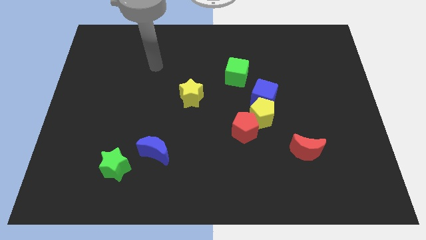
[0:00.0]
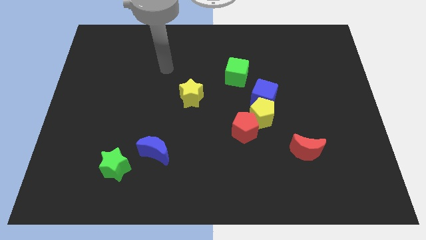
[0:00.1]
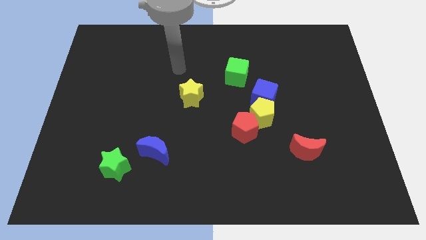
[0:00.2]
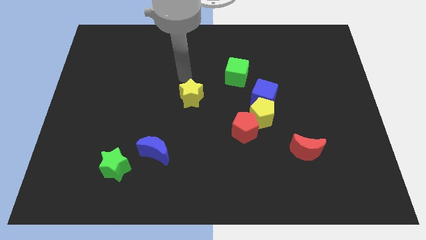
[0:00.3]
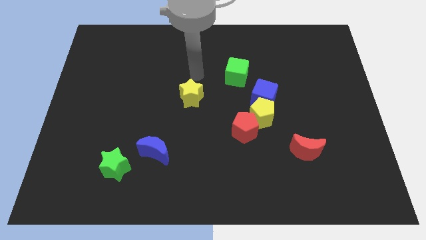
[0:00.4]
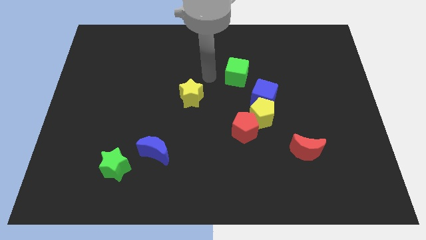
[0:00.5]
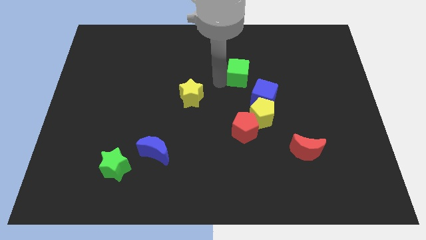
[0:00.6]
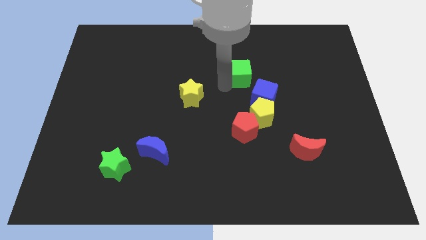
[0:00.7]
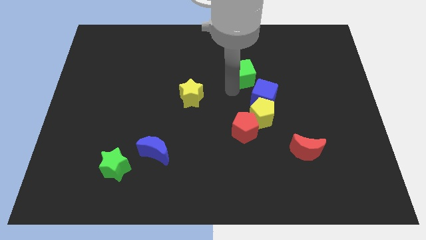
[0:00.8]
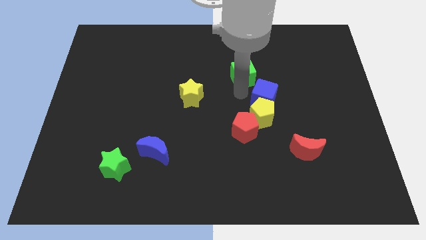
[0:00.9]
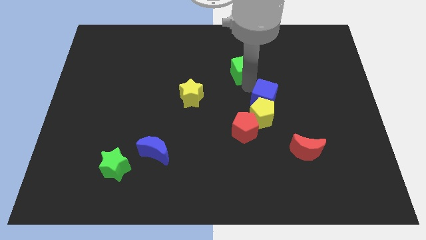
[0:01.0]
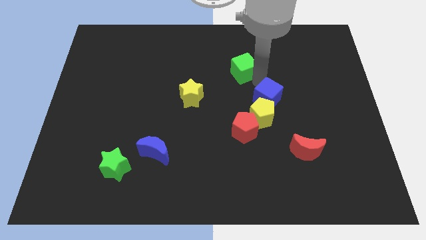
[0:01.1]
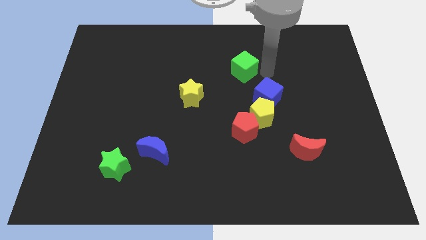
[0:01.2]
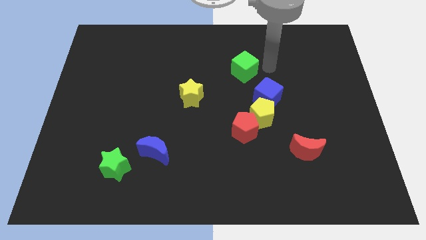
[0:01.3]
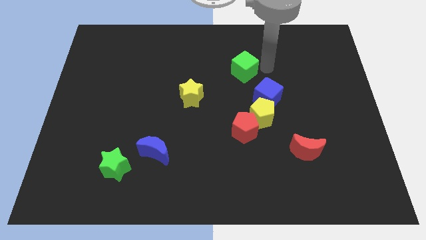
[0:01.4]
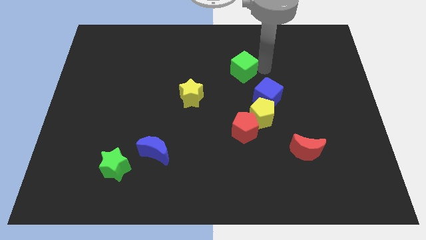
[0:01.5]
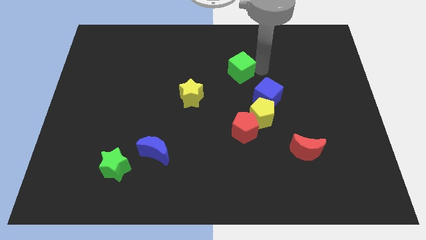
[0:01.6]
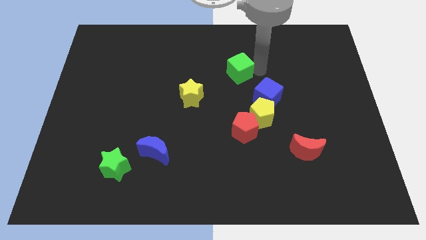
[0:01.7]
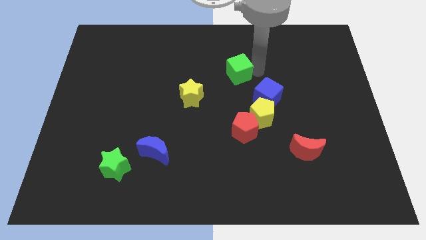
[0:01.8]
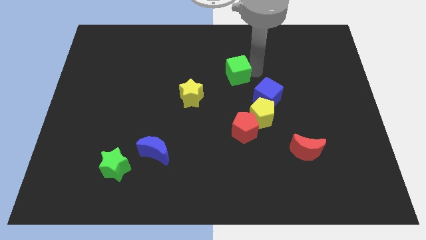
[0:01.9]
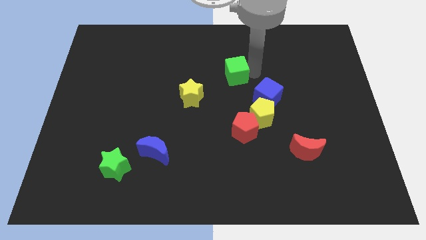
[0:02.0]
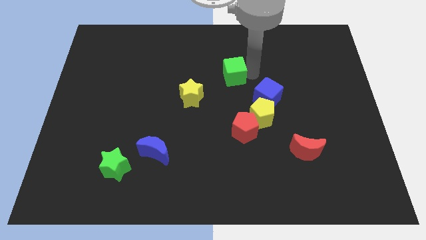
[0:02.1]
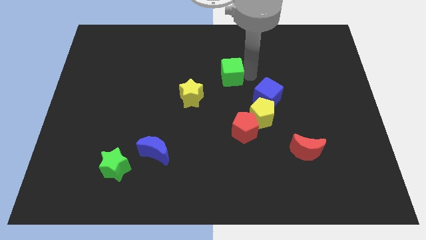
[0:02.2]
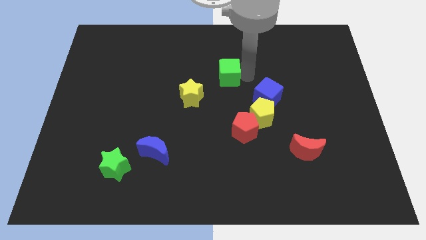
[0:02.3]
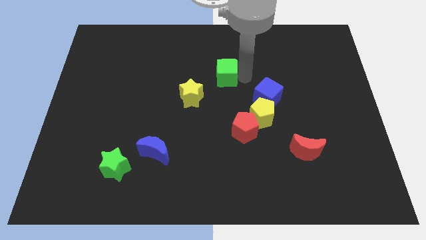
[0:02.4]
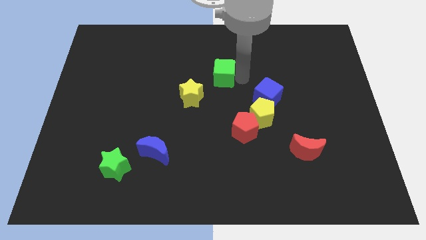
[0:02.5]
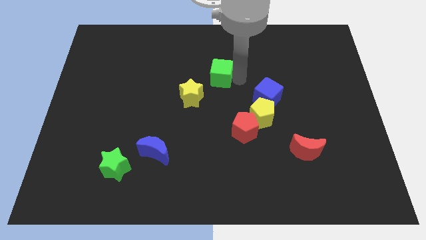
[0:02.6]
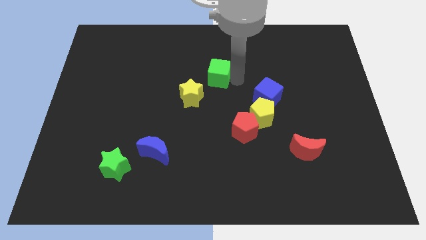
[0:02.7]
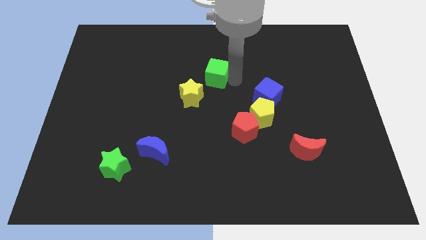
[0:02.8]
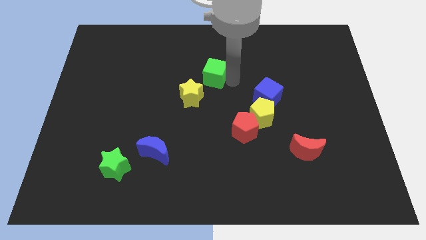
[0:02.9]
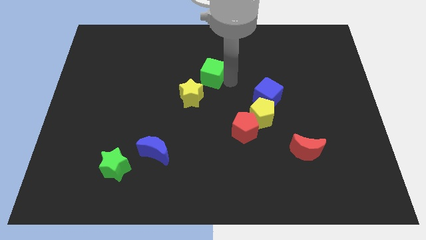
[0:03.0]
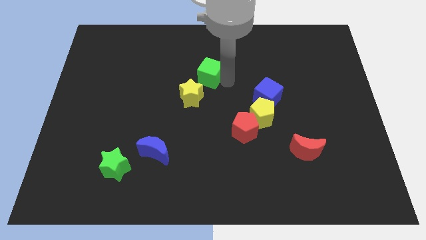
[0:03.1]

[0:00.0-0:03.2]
slide the green cube a little bit left

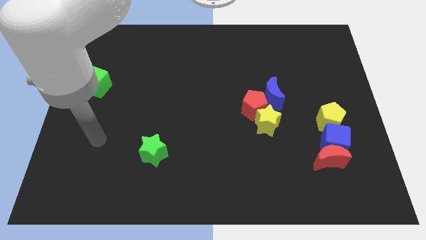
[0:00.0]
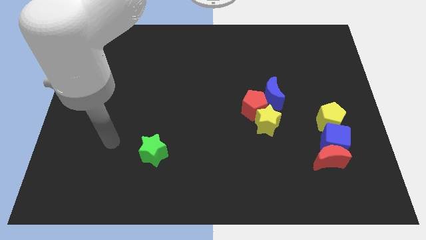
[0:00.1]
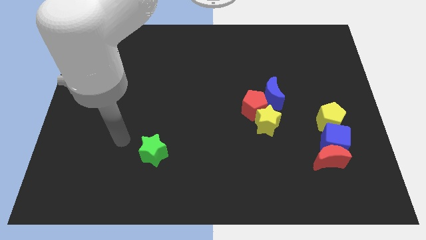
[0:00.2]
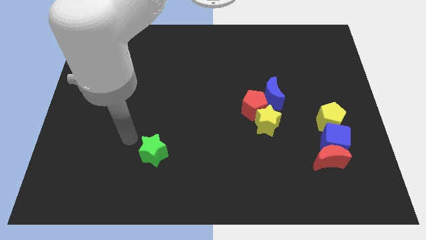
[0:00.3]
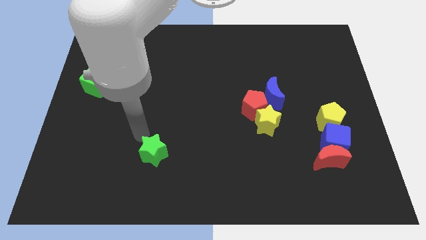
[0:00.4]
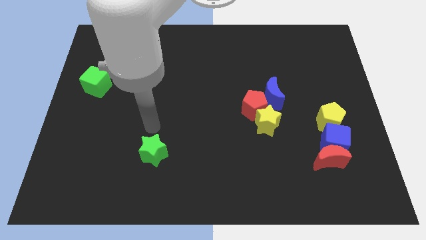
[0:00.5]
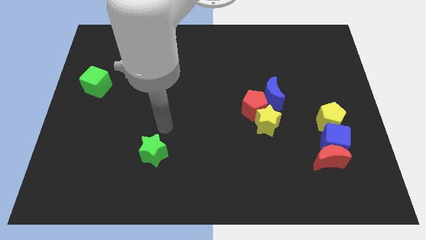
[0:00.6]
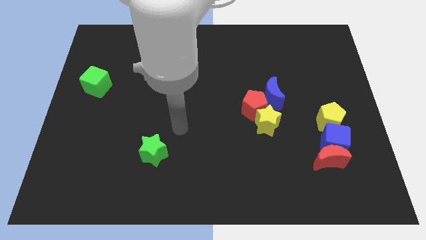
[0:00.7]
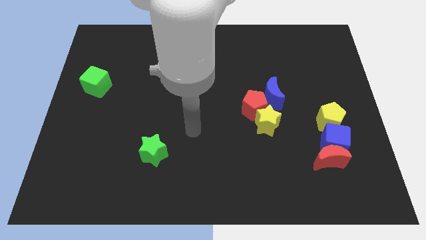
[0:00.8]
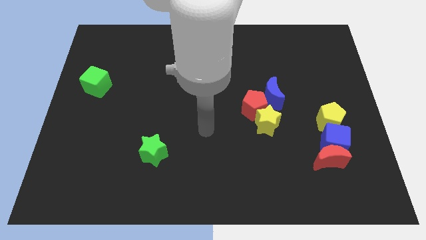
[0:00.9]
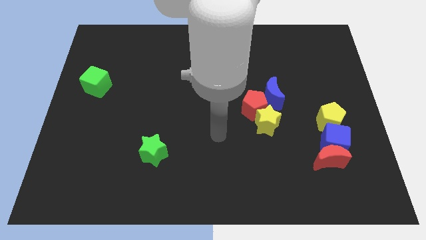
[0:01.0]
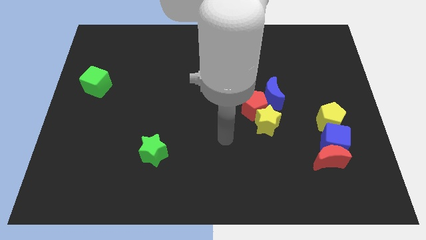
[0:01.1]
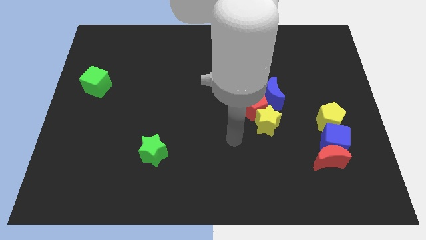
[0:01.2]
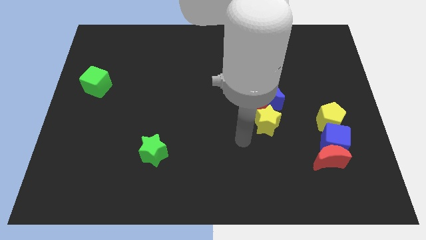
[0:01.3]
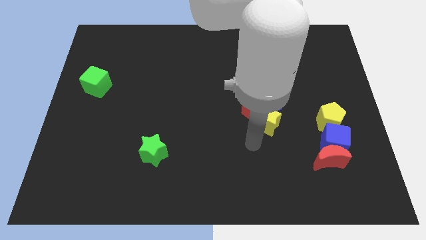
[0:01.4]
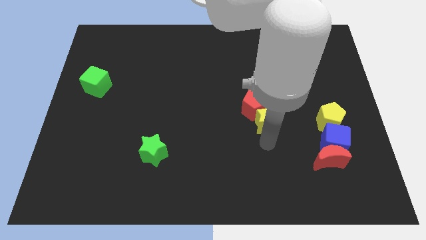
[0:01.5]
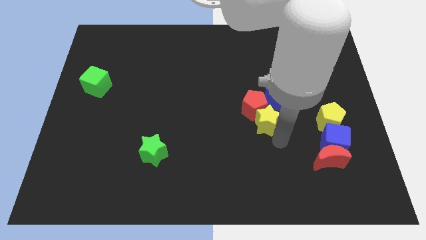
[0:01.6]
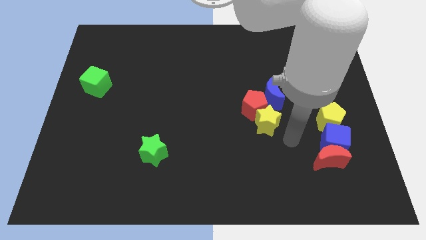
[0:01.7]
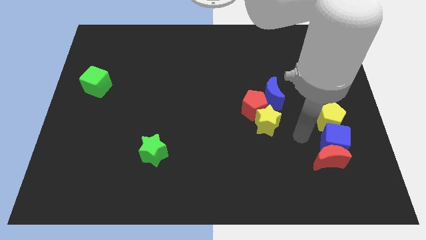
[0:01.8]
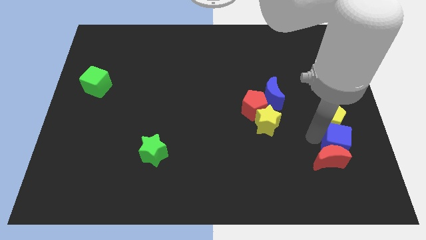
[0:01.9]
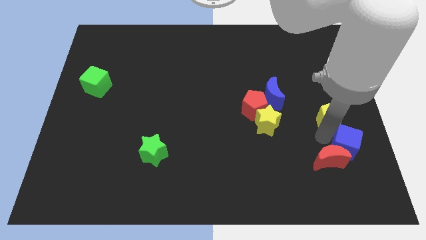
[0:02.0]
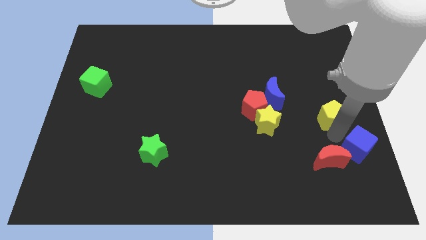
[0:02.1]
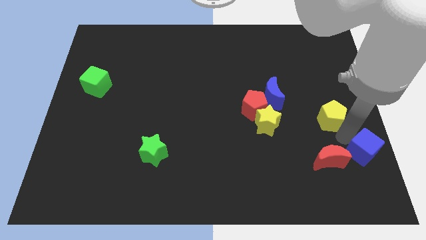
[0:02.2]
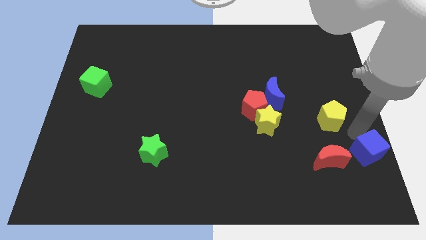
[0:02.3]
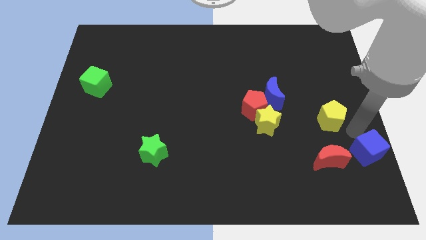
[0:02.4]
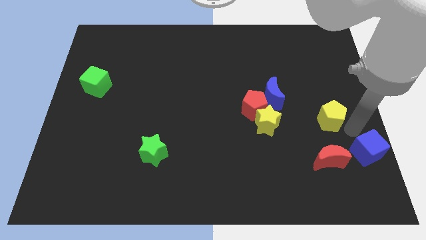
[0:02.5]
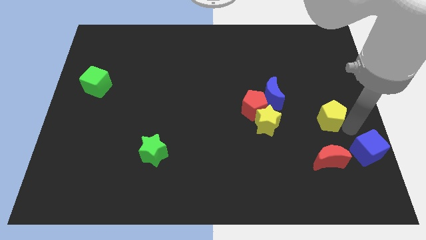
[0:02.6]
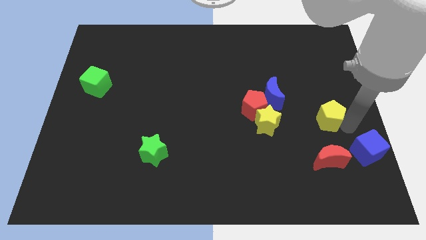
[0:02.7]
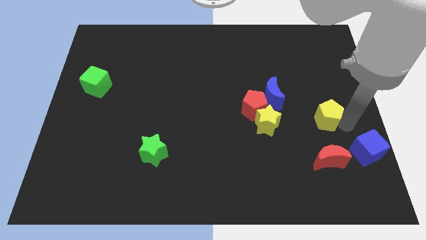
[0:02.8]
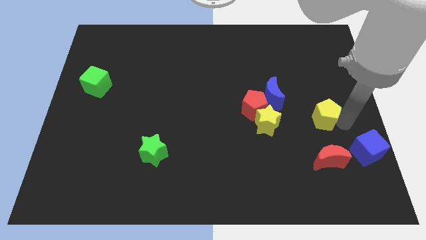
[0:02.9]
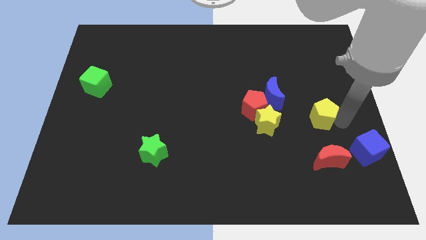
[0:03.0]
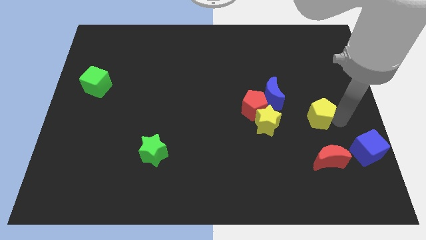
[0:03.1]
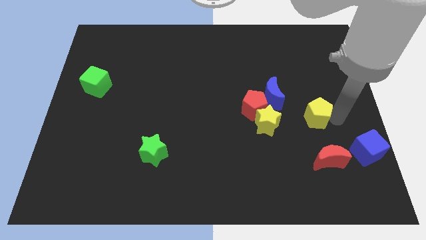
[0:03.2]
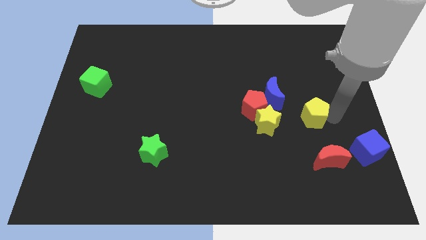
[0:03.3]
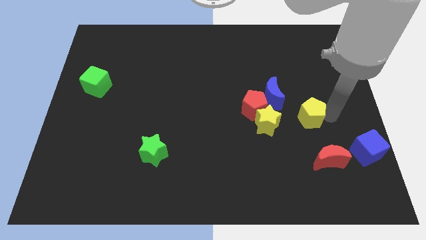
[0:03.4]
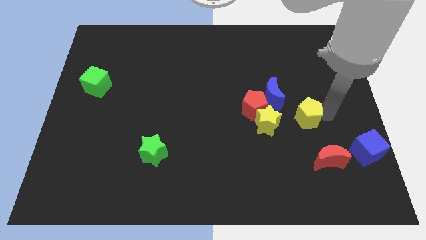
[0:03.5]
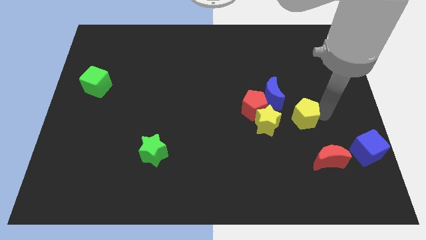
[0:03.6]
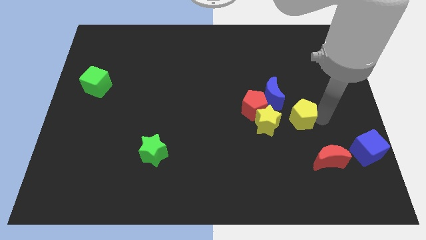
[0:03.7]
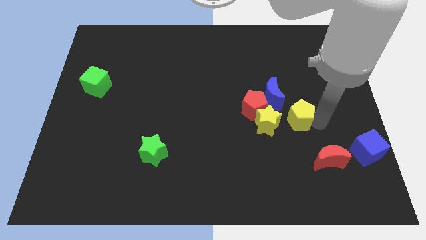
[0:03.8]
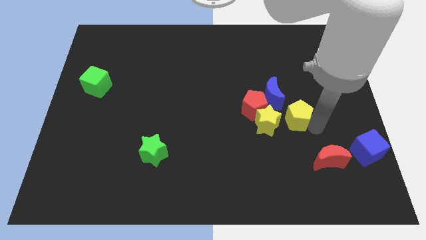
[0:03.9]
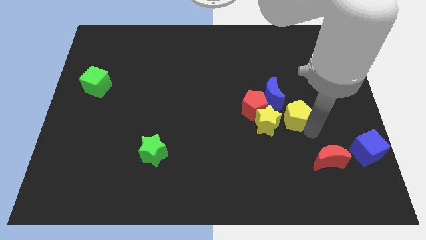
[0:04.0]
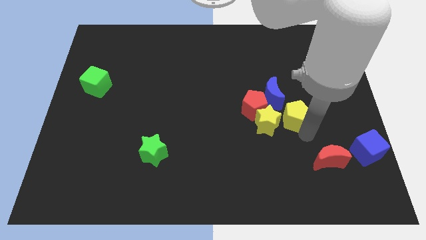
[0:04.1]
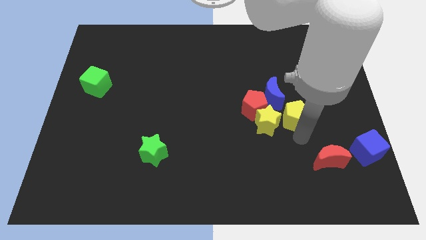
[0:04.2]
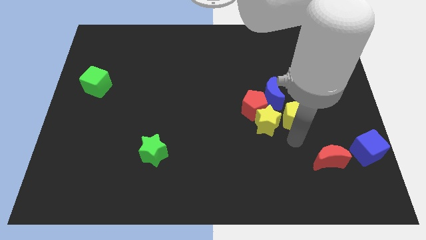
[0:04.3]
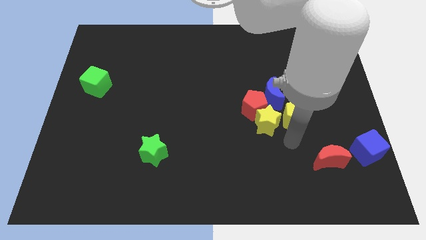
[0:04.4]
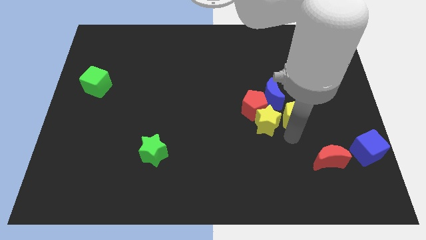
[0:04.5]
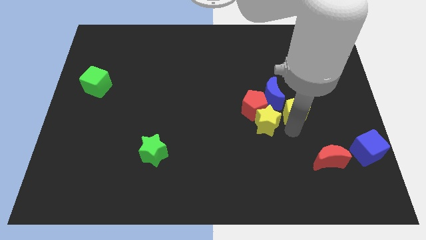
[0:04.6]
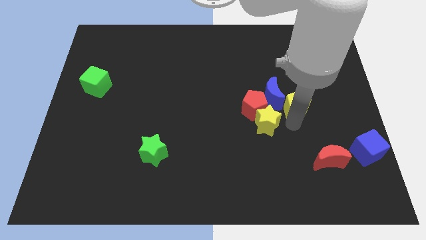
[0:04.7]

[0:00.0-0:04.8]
slightly push the yellow pentagon up and left

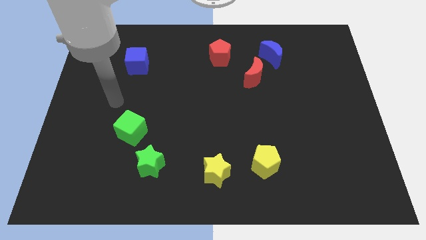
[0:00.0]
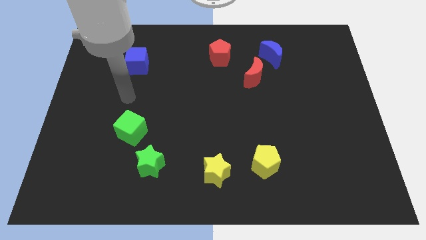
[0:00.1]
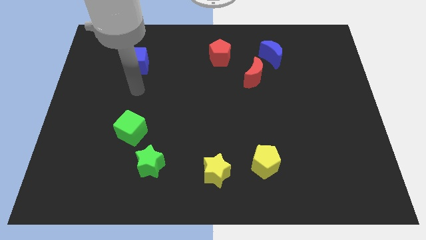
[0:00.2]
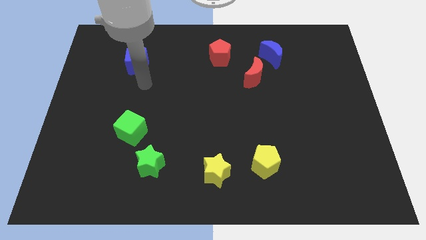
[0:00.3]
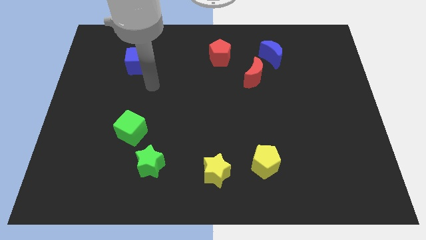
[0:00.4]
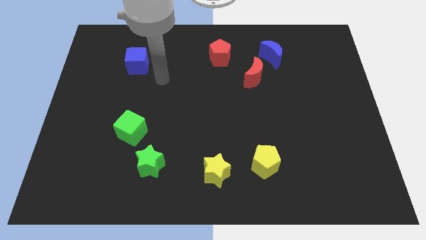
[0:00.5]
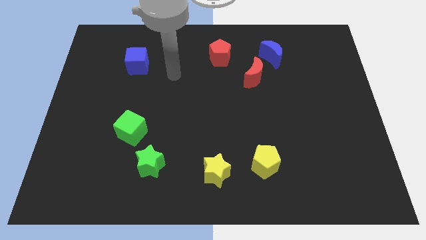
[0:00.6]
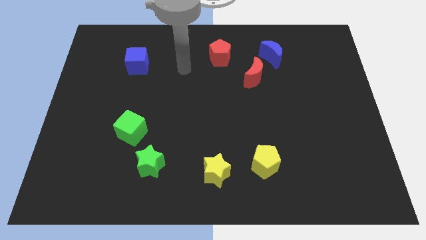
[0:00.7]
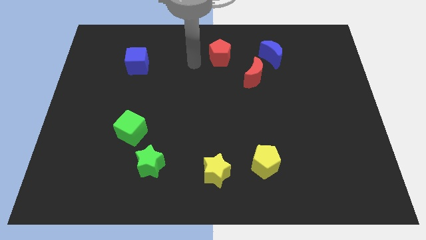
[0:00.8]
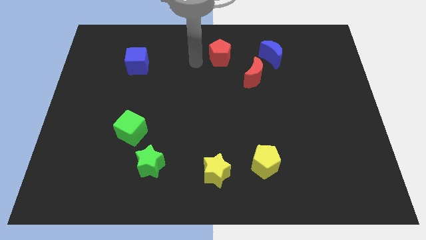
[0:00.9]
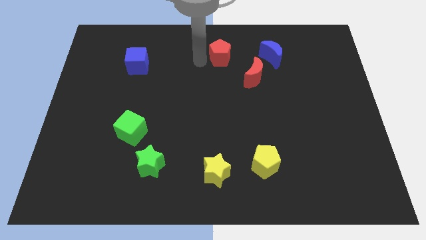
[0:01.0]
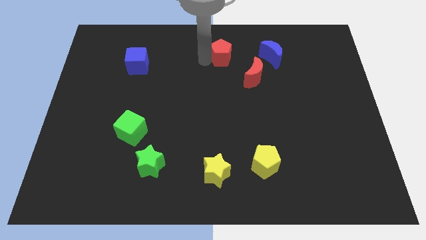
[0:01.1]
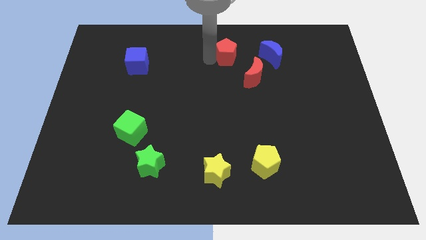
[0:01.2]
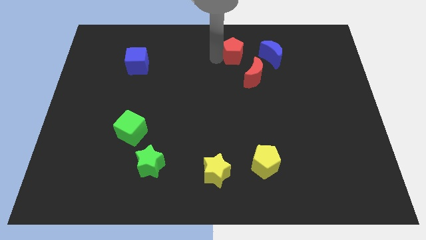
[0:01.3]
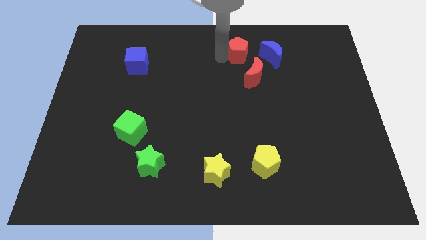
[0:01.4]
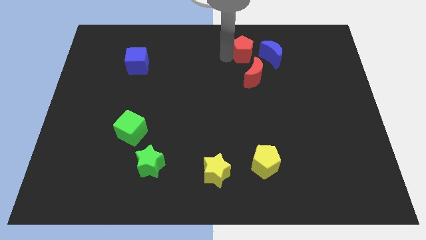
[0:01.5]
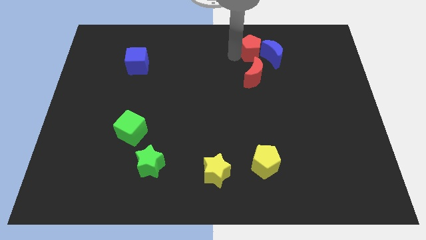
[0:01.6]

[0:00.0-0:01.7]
push the red pentagon to the right a little bit
